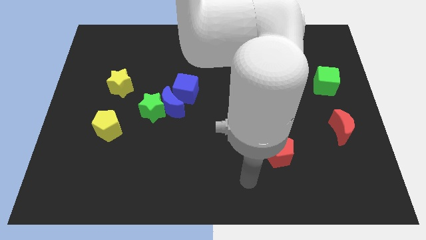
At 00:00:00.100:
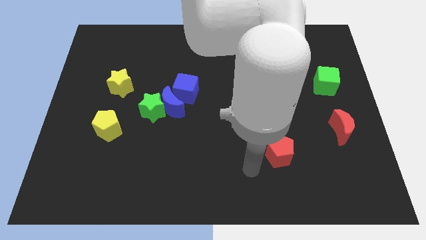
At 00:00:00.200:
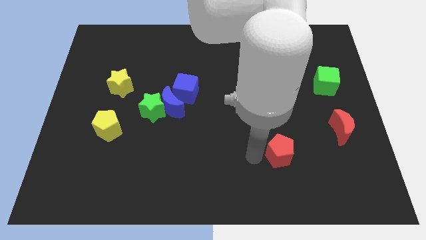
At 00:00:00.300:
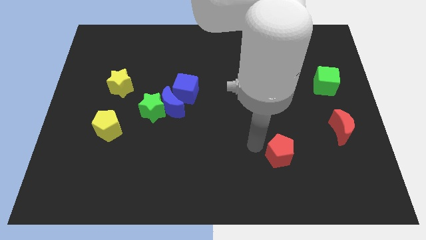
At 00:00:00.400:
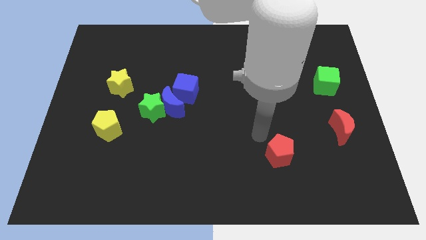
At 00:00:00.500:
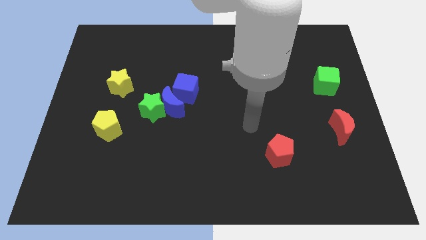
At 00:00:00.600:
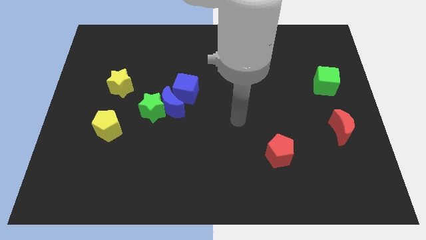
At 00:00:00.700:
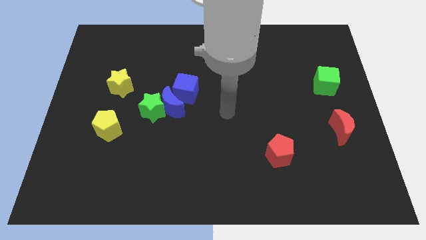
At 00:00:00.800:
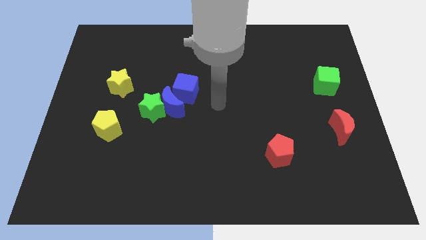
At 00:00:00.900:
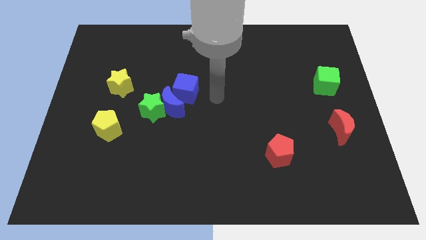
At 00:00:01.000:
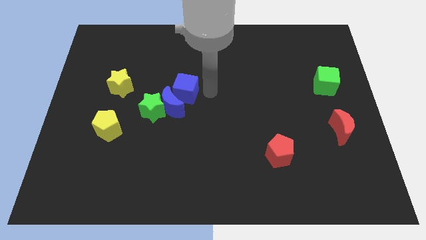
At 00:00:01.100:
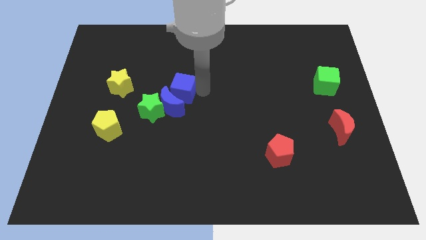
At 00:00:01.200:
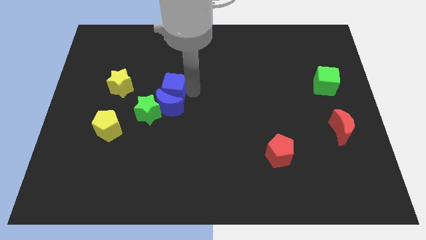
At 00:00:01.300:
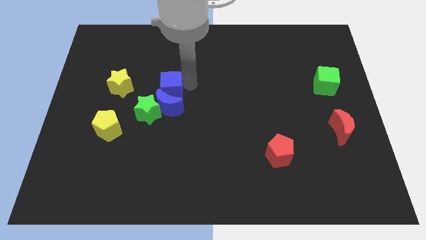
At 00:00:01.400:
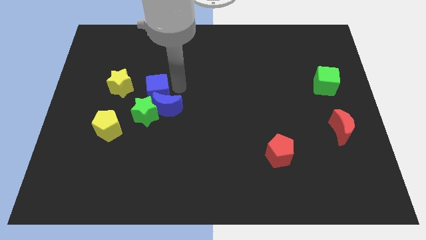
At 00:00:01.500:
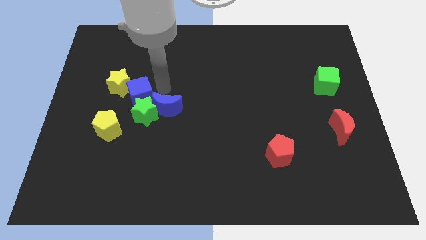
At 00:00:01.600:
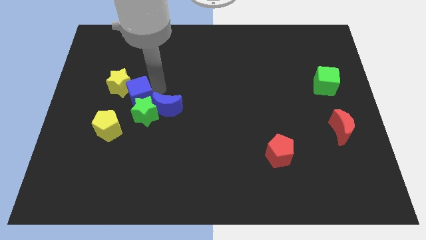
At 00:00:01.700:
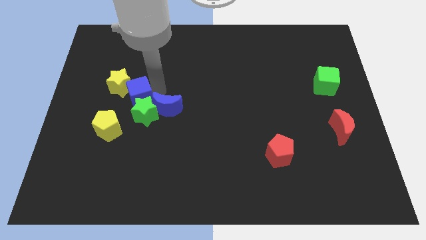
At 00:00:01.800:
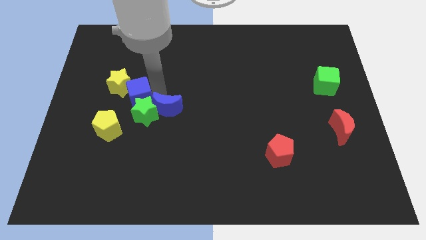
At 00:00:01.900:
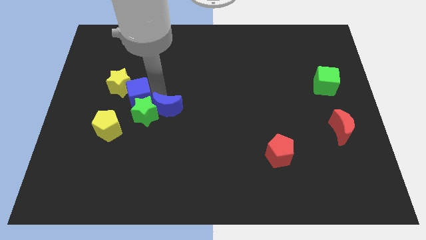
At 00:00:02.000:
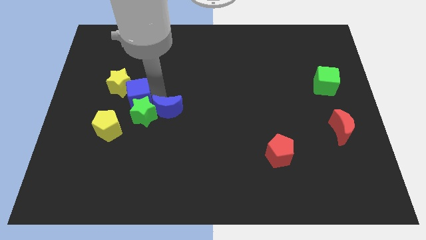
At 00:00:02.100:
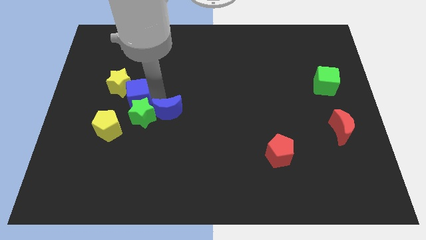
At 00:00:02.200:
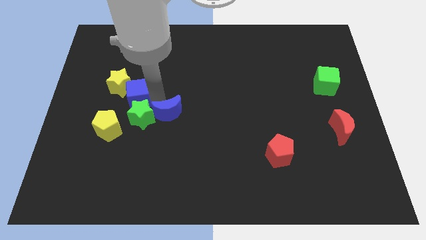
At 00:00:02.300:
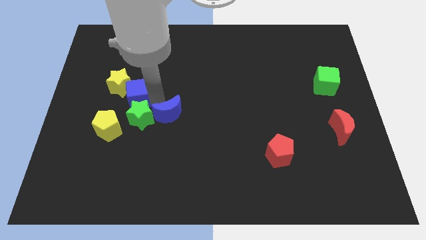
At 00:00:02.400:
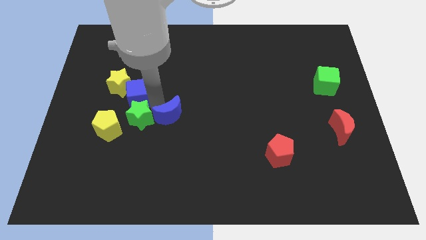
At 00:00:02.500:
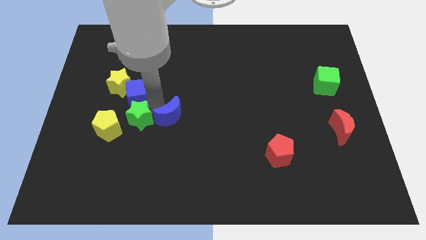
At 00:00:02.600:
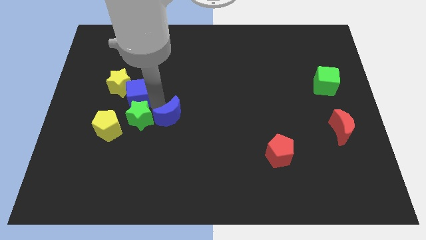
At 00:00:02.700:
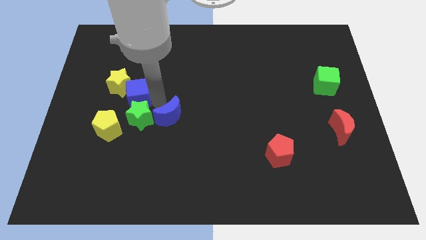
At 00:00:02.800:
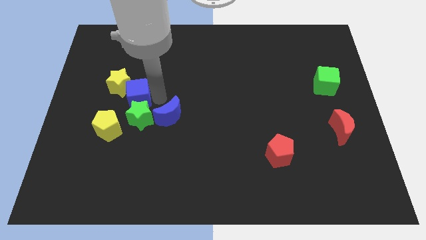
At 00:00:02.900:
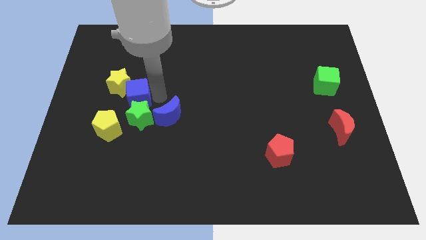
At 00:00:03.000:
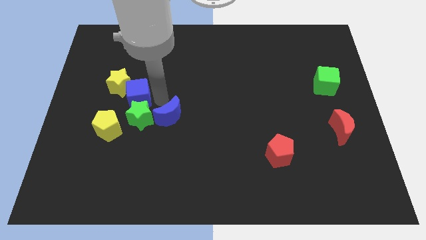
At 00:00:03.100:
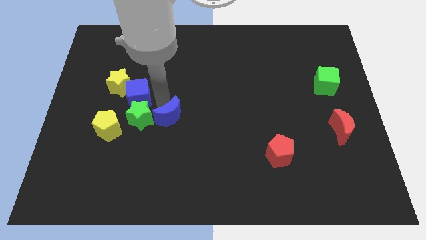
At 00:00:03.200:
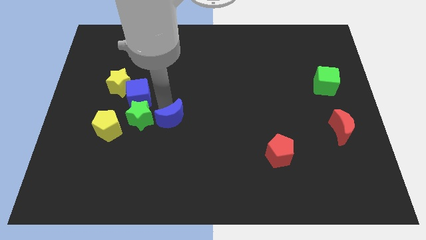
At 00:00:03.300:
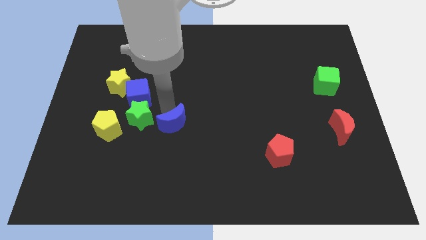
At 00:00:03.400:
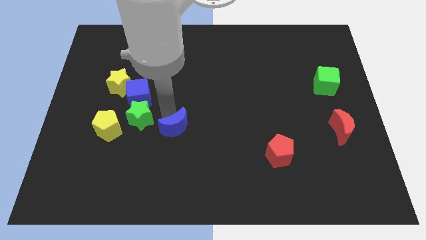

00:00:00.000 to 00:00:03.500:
move the blue moon away from the green star and blue cube

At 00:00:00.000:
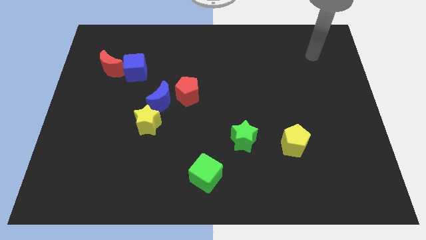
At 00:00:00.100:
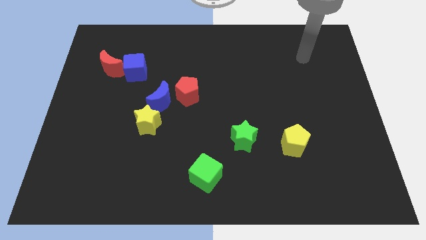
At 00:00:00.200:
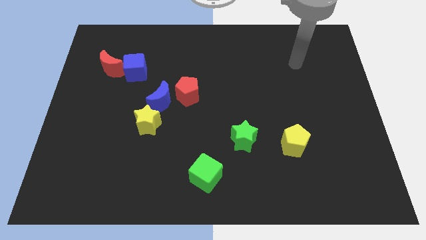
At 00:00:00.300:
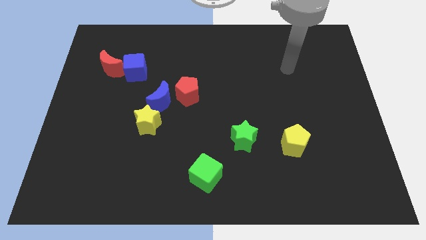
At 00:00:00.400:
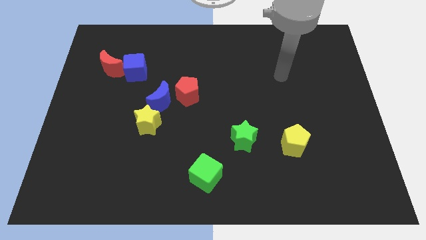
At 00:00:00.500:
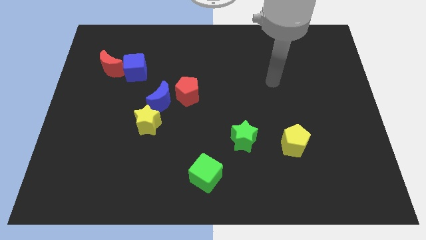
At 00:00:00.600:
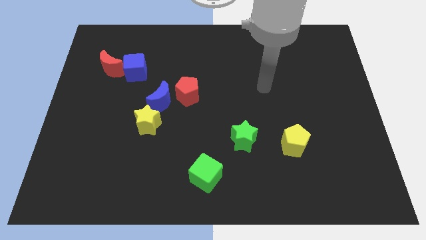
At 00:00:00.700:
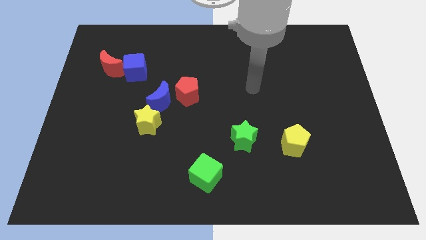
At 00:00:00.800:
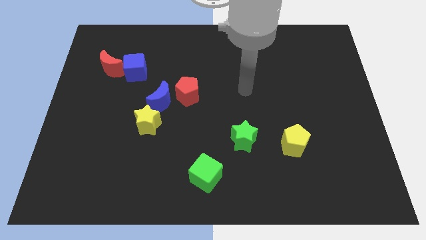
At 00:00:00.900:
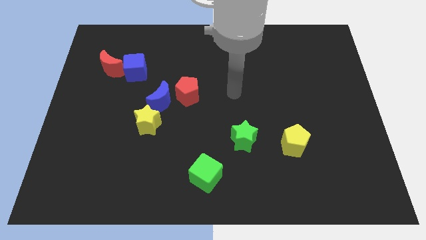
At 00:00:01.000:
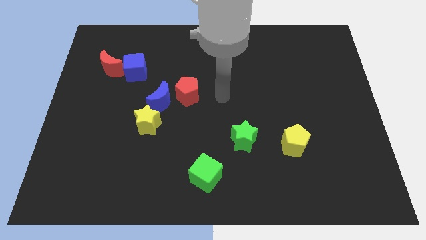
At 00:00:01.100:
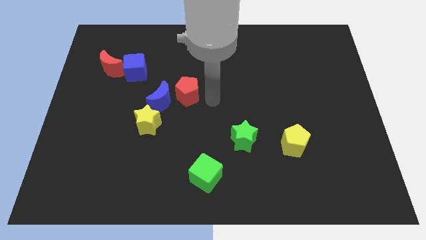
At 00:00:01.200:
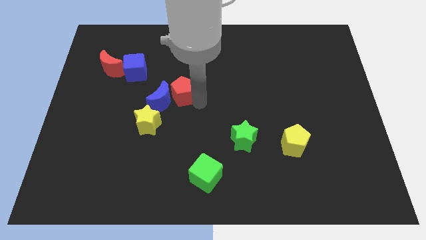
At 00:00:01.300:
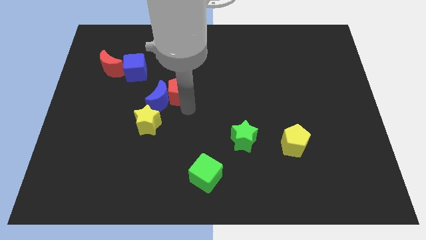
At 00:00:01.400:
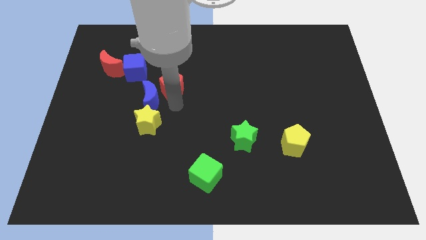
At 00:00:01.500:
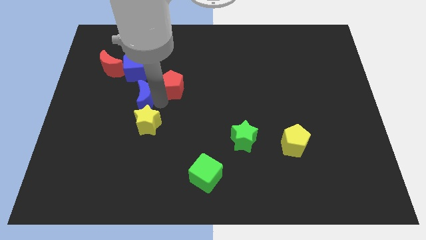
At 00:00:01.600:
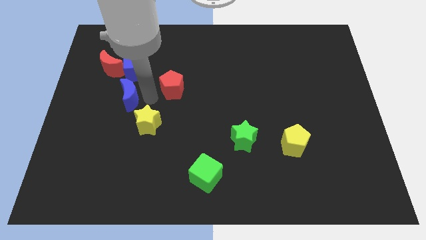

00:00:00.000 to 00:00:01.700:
move the red pentagon away from the blue moon

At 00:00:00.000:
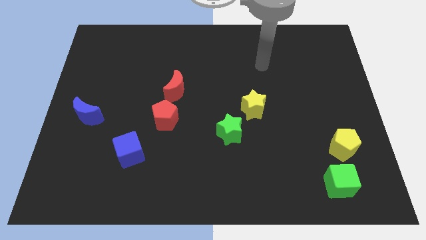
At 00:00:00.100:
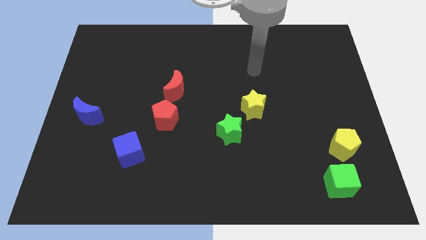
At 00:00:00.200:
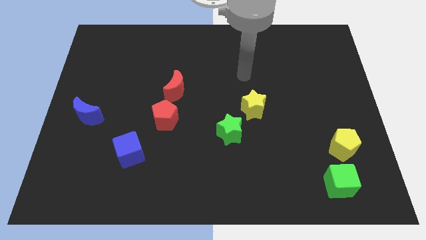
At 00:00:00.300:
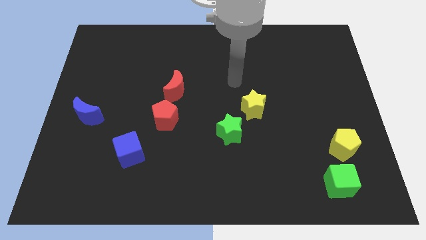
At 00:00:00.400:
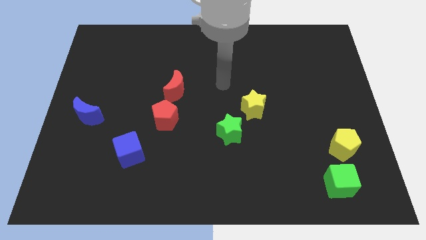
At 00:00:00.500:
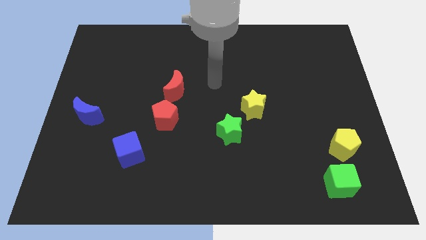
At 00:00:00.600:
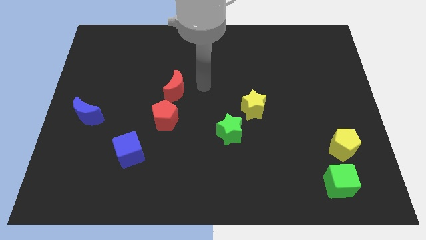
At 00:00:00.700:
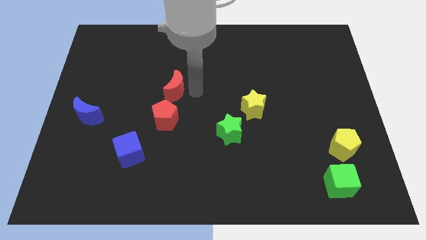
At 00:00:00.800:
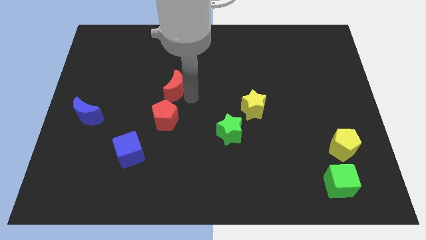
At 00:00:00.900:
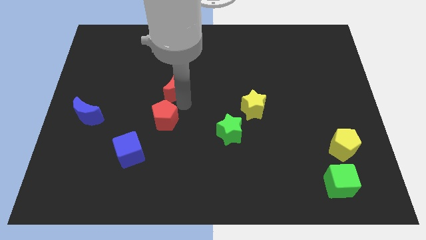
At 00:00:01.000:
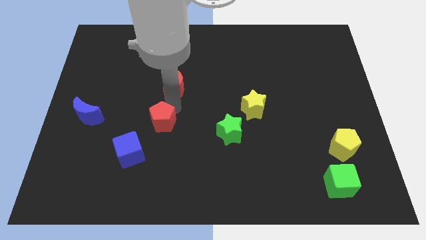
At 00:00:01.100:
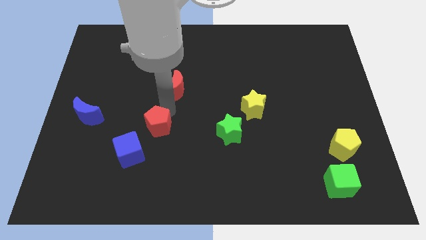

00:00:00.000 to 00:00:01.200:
pull the red moon apart from the red pentagon

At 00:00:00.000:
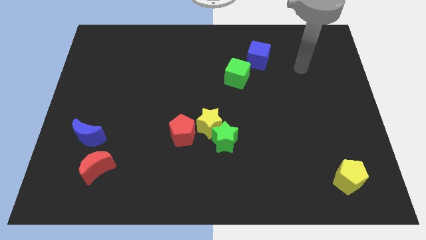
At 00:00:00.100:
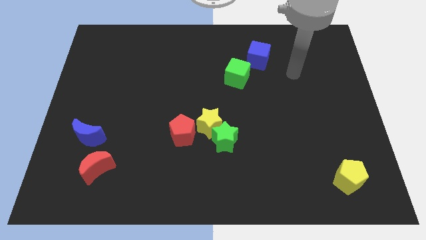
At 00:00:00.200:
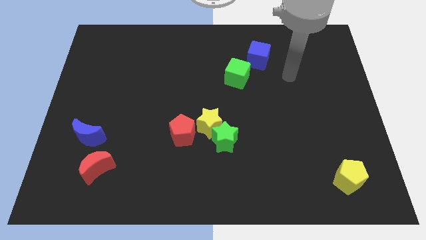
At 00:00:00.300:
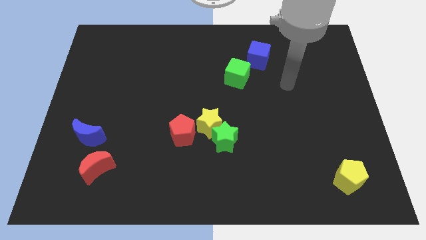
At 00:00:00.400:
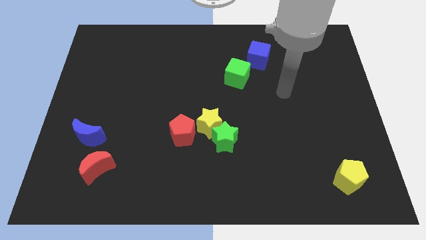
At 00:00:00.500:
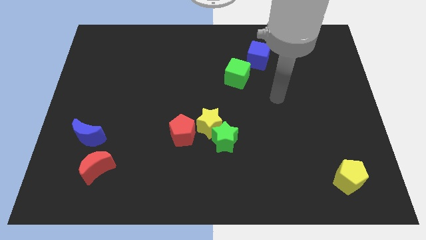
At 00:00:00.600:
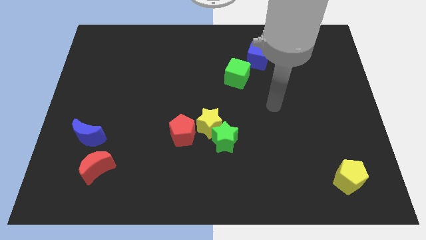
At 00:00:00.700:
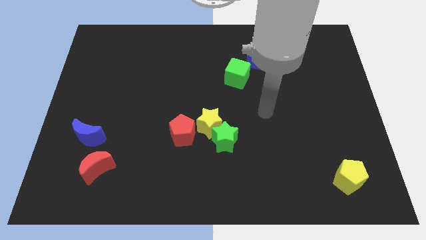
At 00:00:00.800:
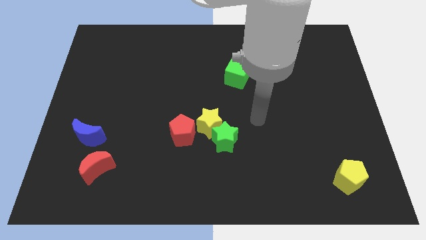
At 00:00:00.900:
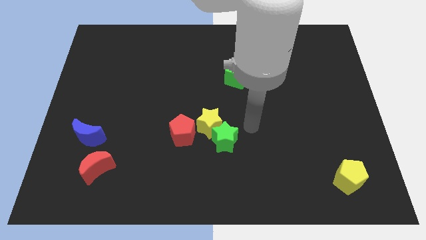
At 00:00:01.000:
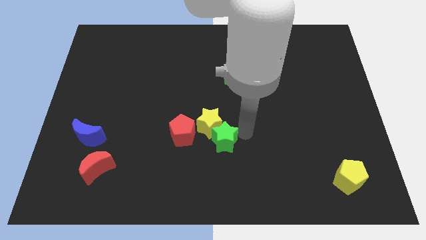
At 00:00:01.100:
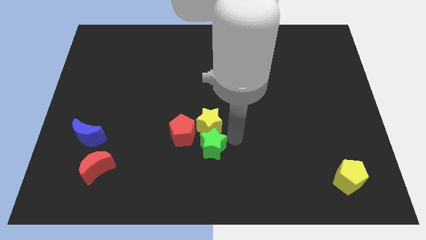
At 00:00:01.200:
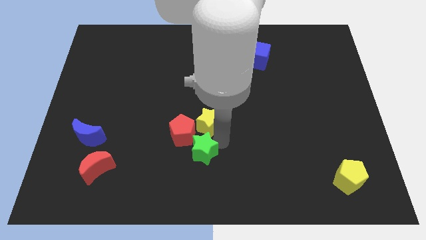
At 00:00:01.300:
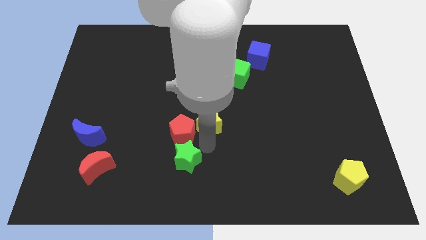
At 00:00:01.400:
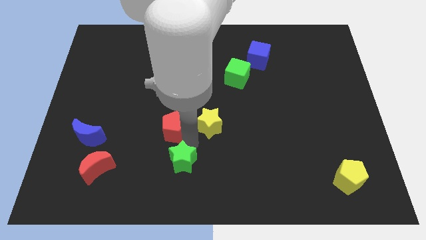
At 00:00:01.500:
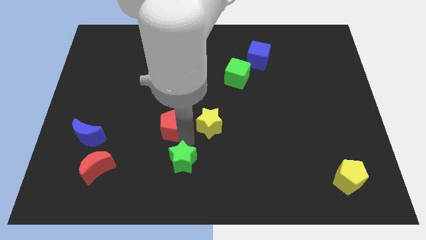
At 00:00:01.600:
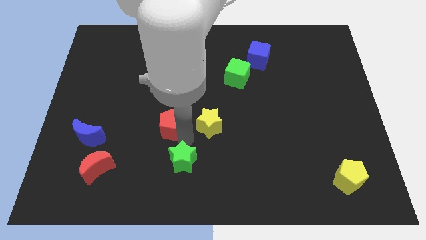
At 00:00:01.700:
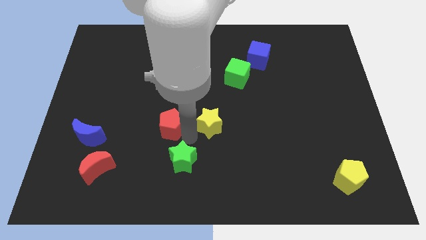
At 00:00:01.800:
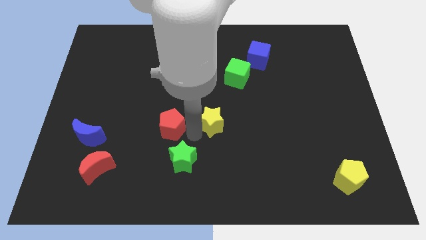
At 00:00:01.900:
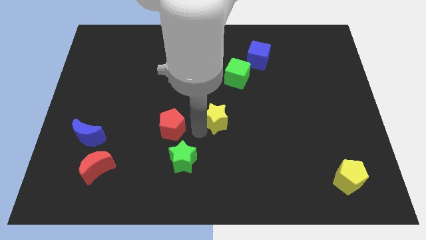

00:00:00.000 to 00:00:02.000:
move the yellow star away from the green star and red pentagon

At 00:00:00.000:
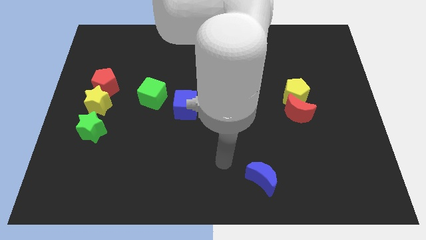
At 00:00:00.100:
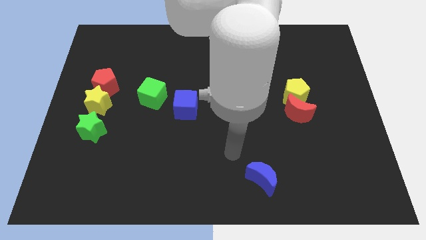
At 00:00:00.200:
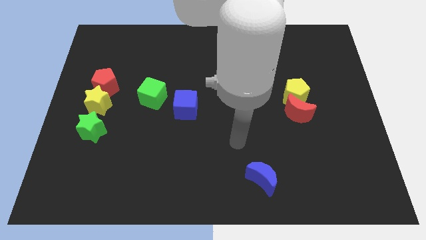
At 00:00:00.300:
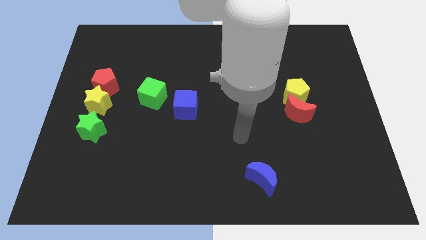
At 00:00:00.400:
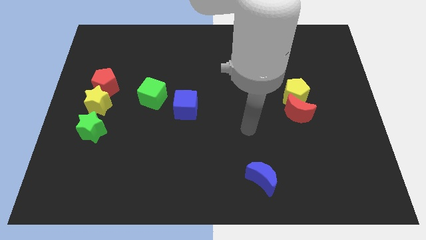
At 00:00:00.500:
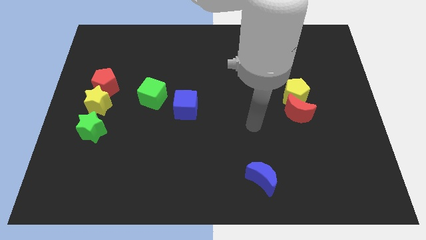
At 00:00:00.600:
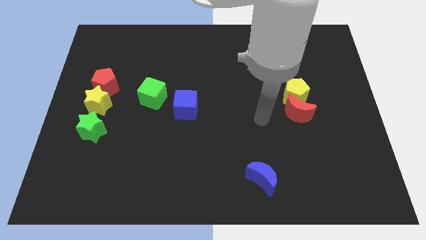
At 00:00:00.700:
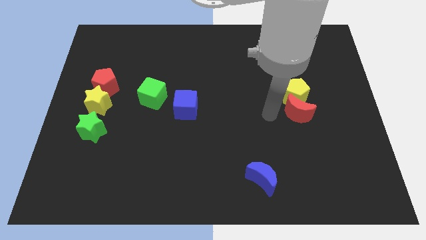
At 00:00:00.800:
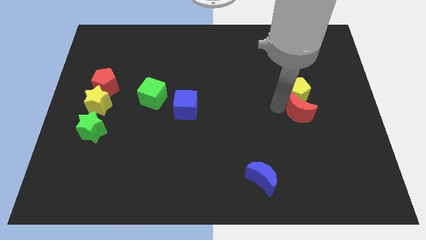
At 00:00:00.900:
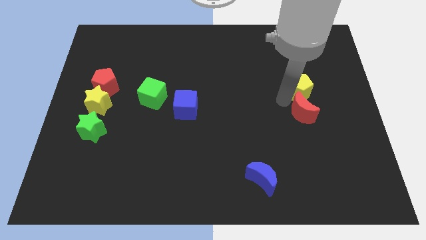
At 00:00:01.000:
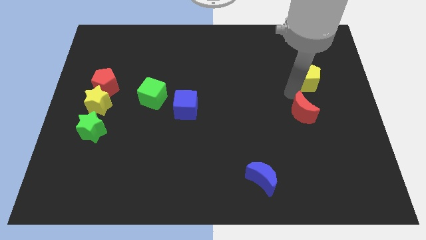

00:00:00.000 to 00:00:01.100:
move the red moon away from the yellow pentagon
